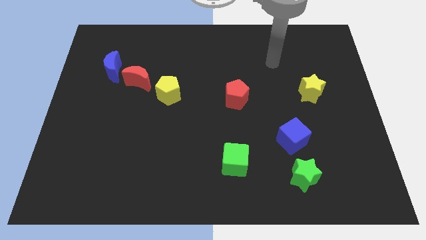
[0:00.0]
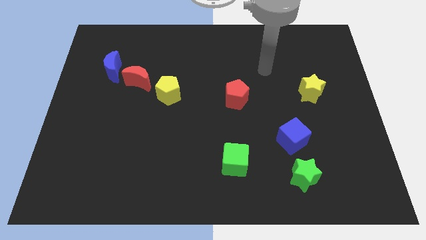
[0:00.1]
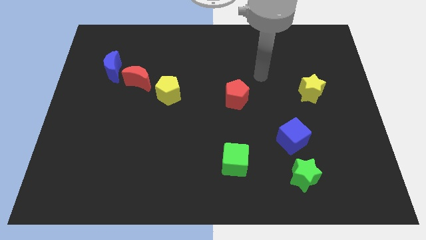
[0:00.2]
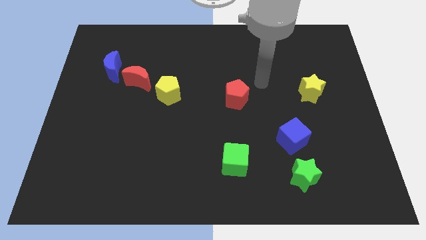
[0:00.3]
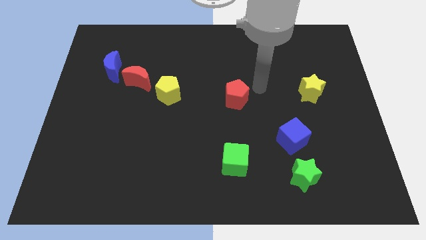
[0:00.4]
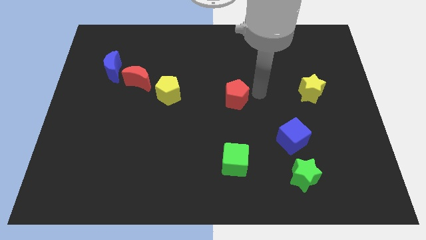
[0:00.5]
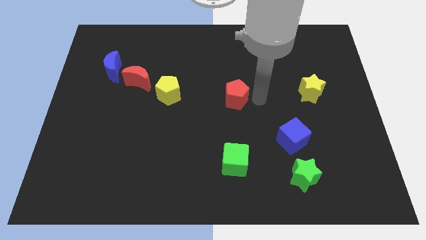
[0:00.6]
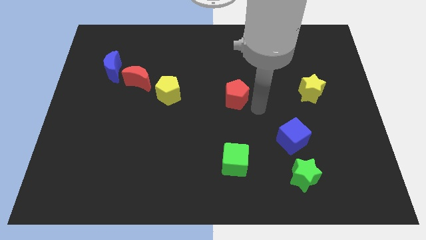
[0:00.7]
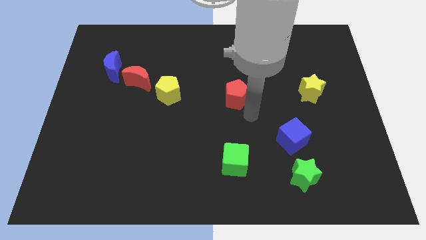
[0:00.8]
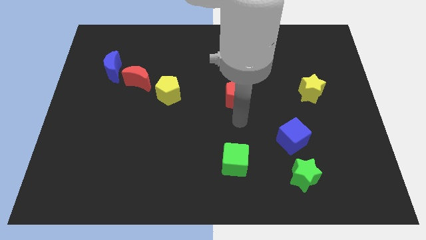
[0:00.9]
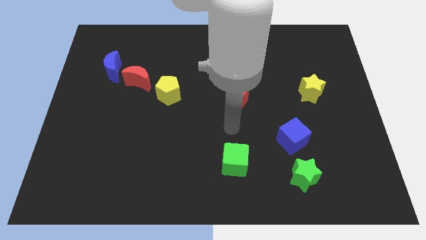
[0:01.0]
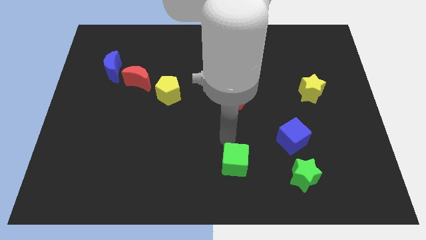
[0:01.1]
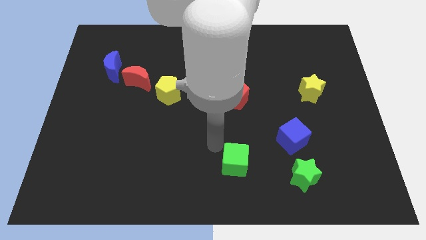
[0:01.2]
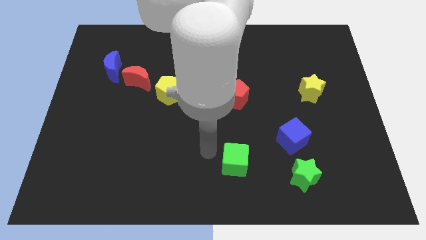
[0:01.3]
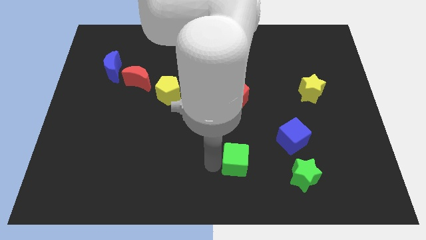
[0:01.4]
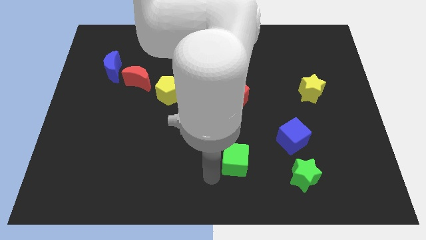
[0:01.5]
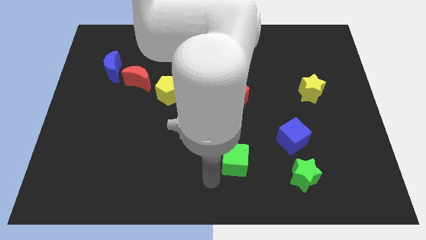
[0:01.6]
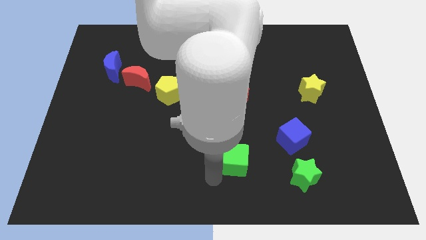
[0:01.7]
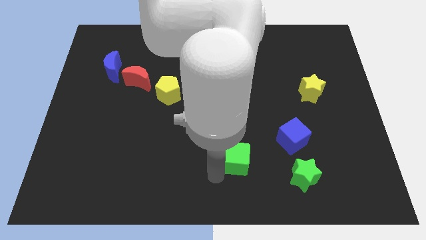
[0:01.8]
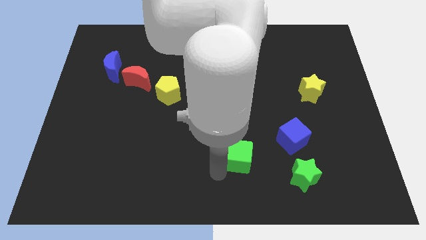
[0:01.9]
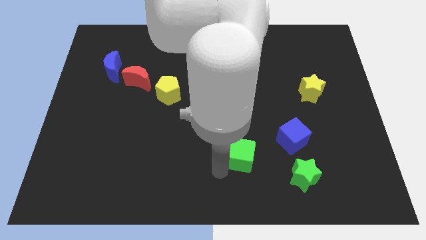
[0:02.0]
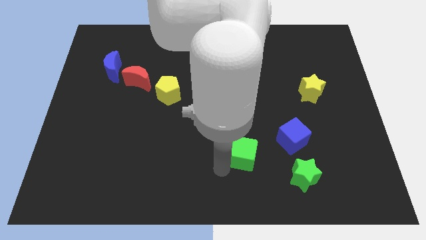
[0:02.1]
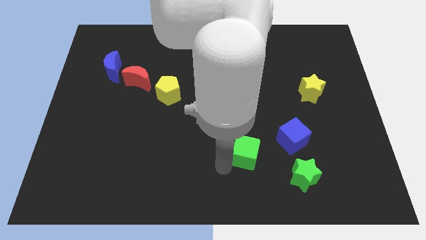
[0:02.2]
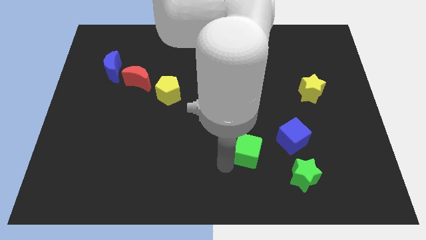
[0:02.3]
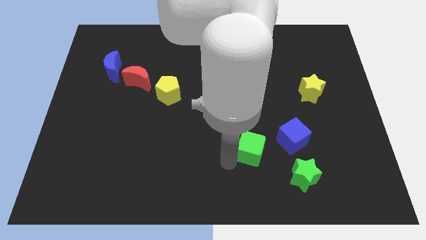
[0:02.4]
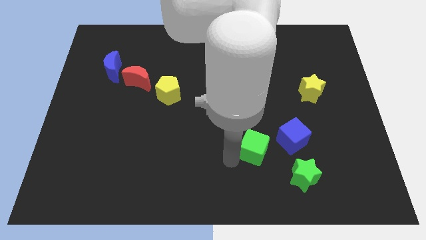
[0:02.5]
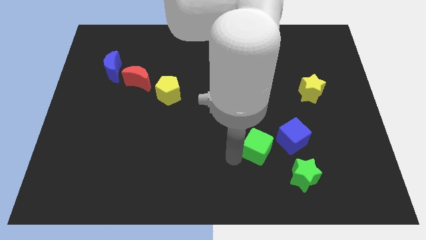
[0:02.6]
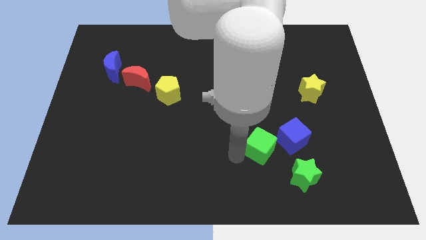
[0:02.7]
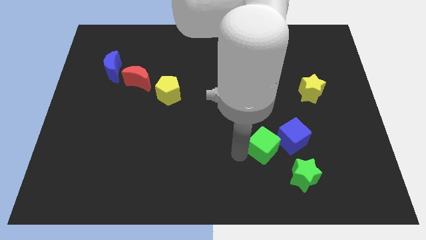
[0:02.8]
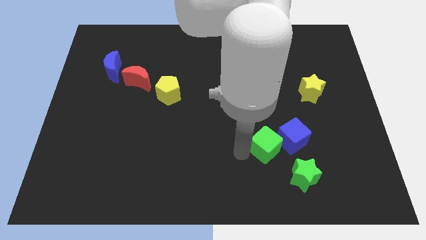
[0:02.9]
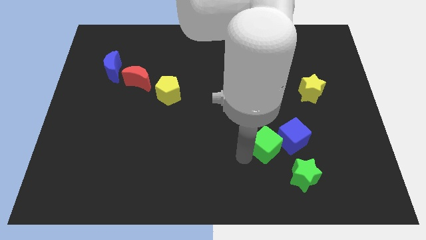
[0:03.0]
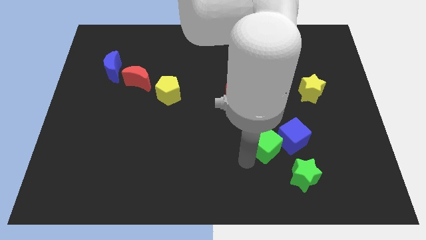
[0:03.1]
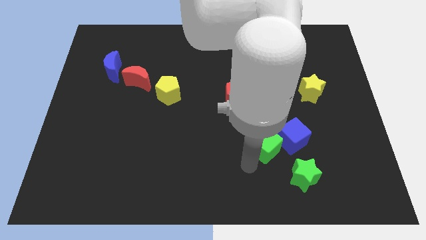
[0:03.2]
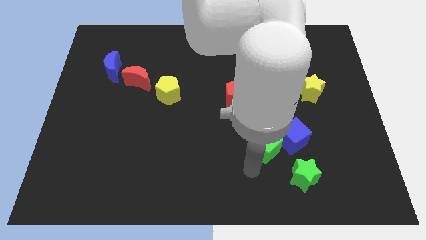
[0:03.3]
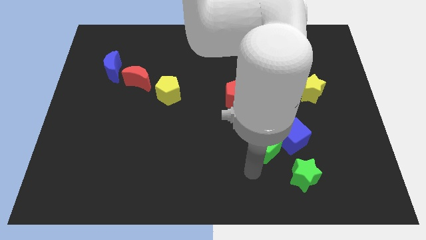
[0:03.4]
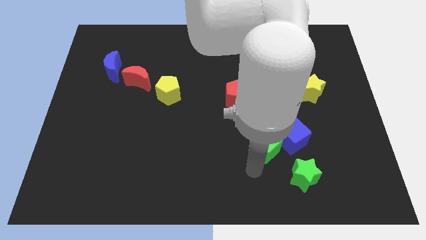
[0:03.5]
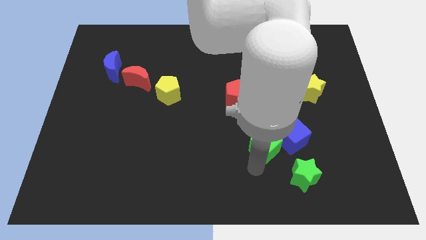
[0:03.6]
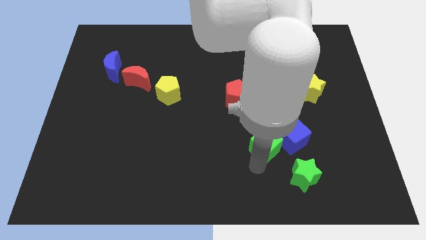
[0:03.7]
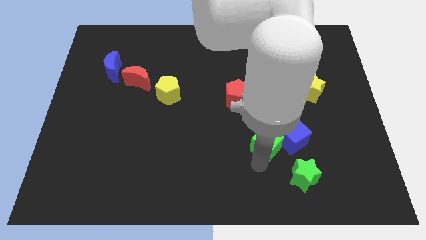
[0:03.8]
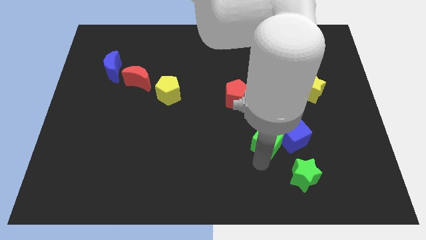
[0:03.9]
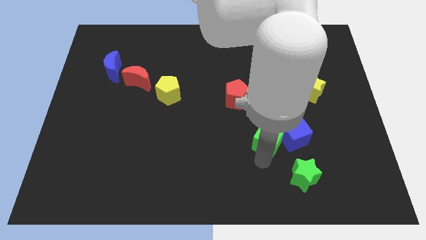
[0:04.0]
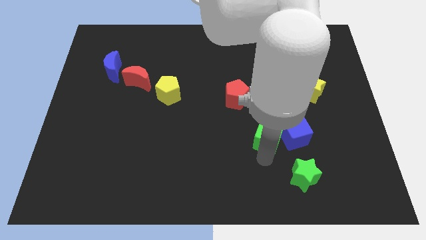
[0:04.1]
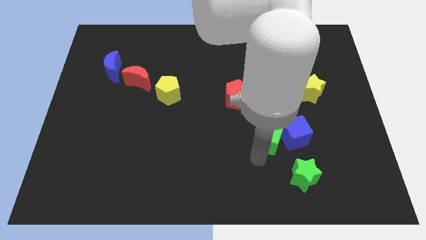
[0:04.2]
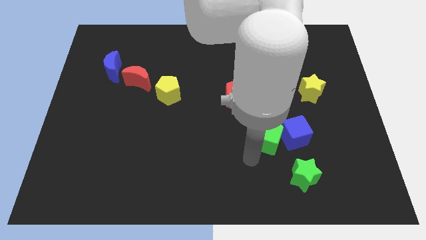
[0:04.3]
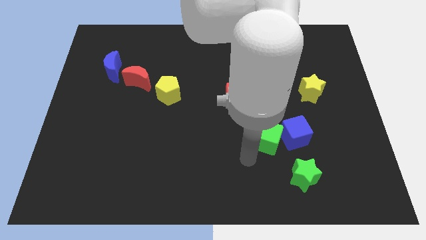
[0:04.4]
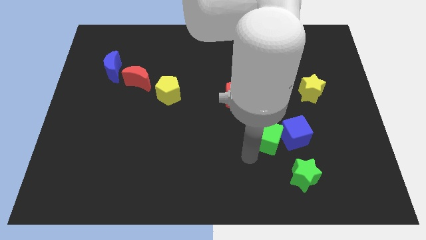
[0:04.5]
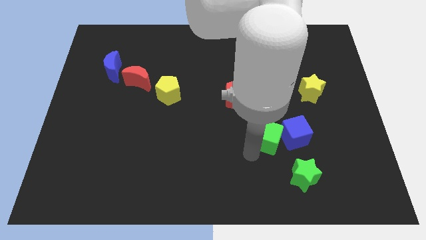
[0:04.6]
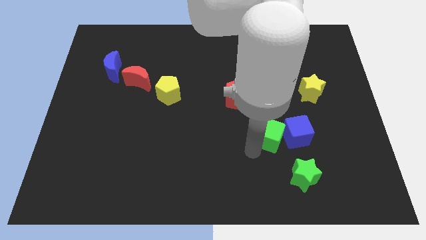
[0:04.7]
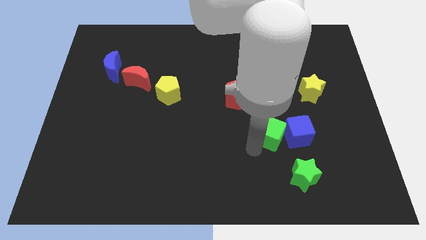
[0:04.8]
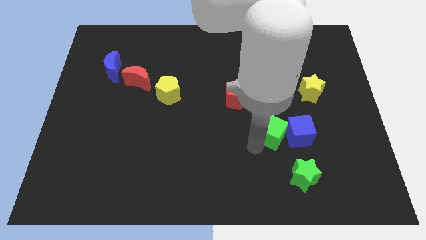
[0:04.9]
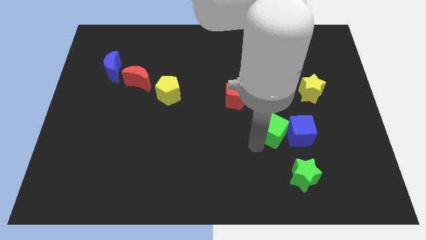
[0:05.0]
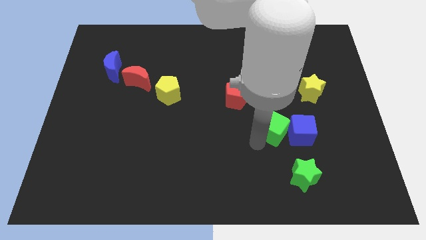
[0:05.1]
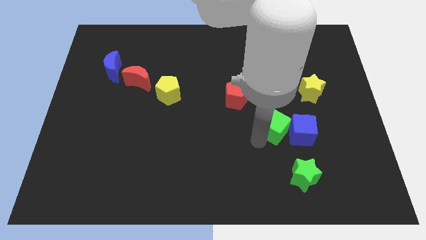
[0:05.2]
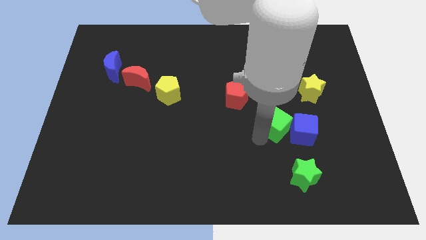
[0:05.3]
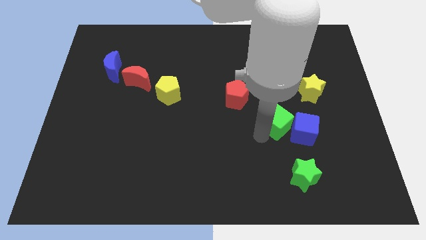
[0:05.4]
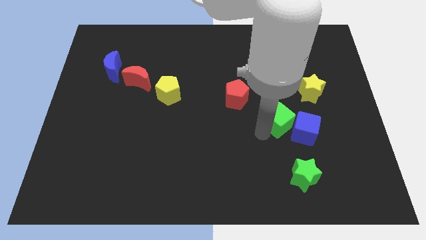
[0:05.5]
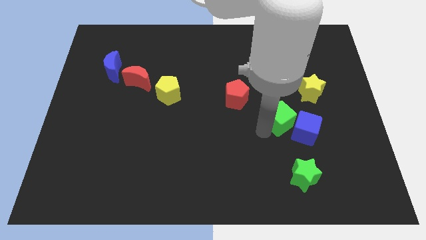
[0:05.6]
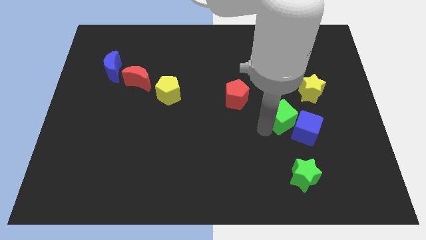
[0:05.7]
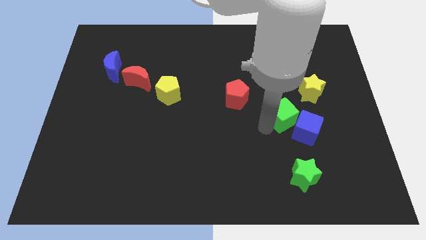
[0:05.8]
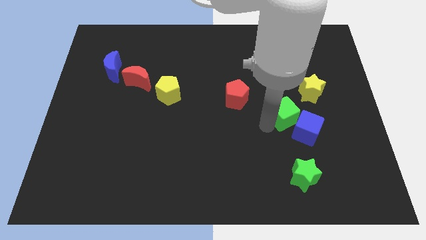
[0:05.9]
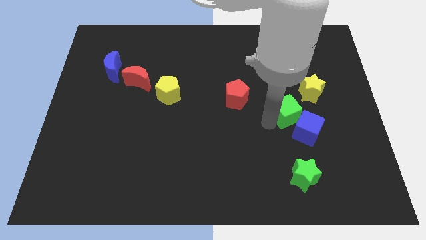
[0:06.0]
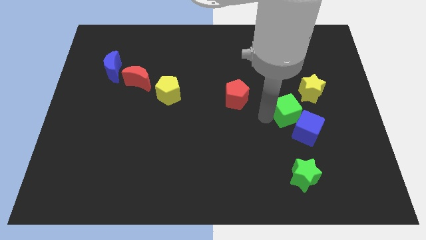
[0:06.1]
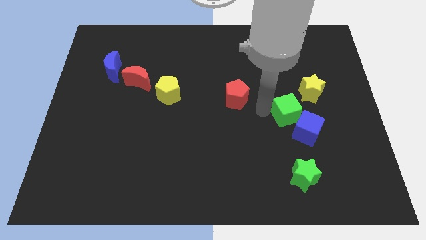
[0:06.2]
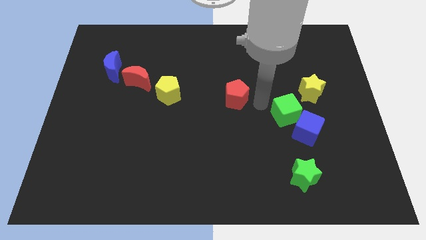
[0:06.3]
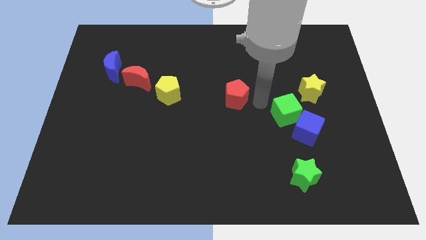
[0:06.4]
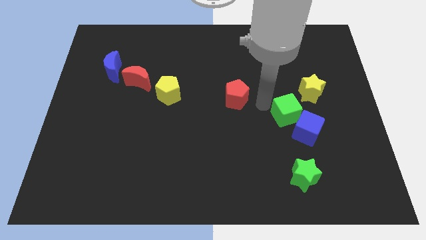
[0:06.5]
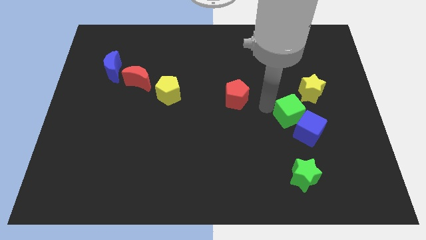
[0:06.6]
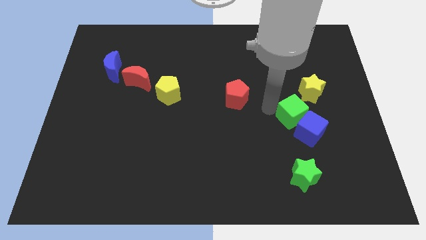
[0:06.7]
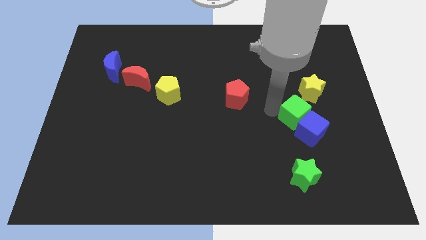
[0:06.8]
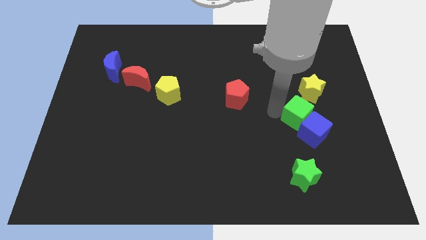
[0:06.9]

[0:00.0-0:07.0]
slide the green cube to the bottom of the yellow star

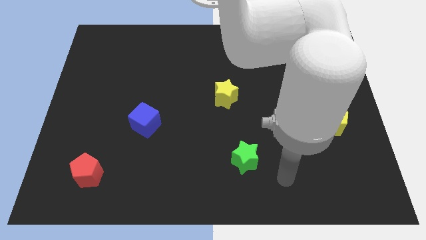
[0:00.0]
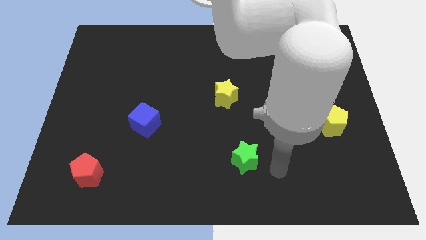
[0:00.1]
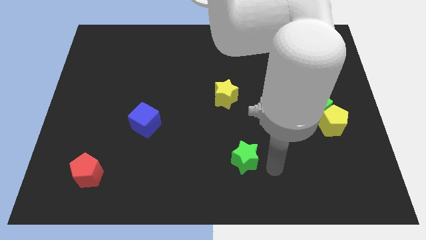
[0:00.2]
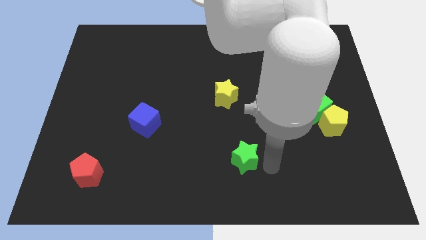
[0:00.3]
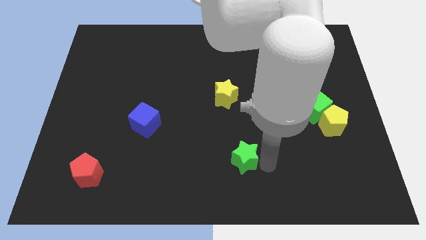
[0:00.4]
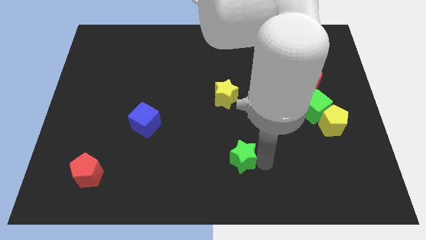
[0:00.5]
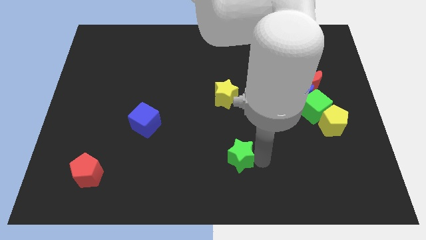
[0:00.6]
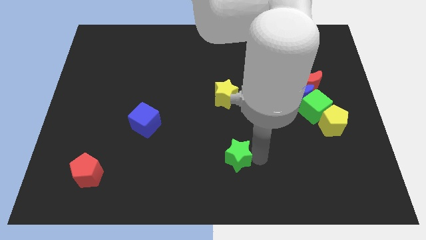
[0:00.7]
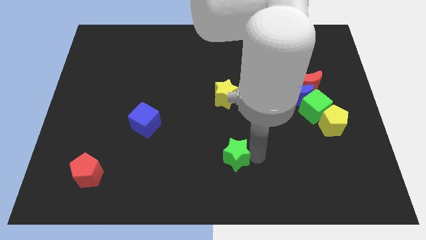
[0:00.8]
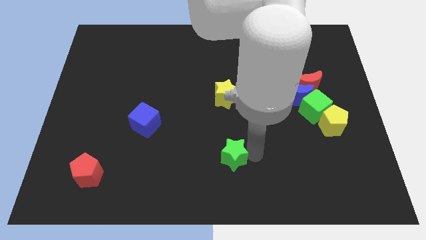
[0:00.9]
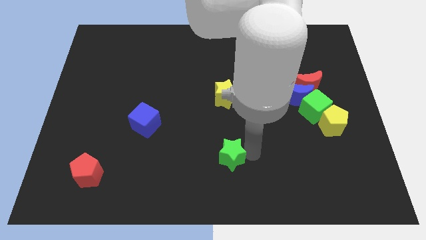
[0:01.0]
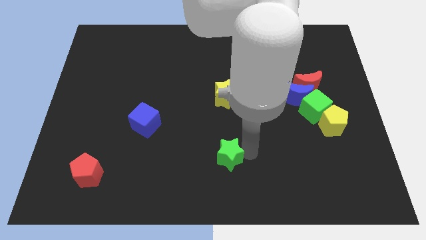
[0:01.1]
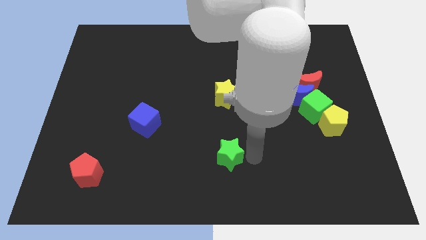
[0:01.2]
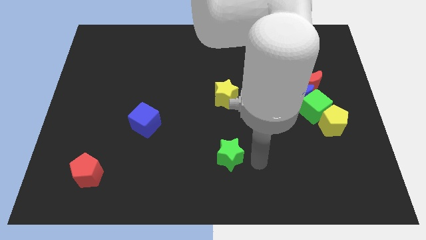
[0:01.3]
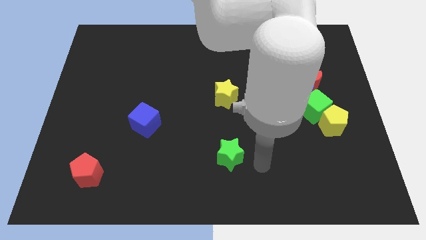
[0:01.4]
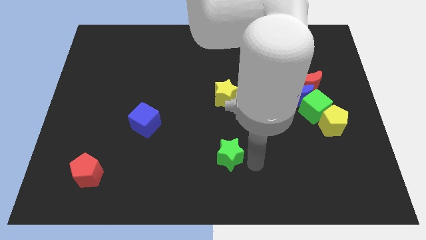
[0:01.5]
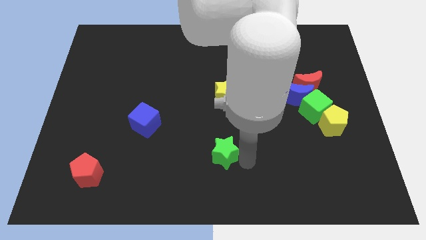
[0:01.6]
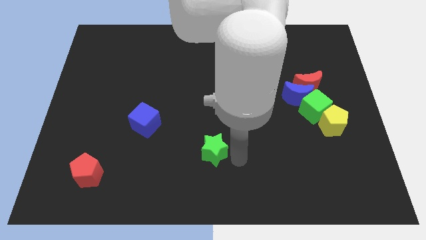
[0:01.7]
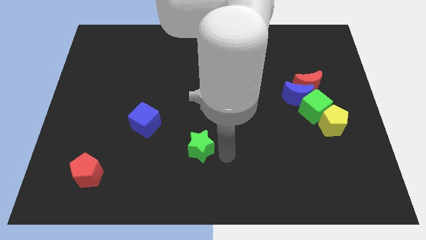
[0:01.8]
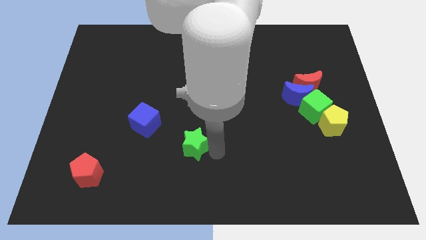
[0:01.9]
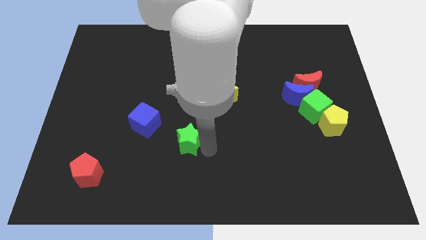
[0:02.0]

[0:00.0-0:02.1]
push the green star to the bottom right side of the blue cube
